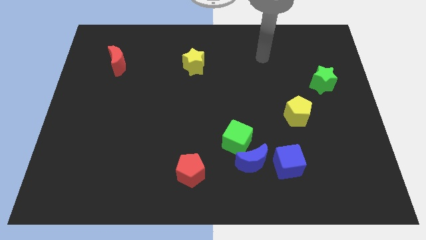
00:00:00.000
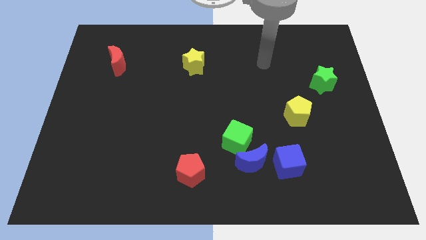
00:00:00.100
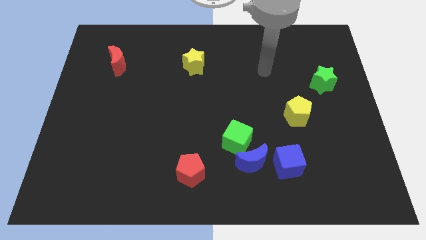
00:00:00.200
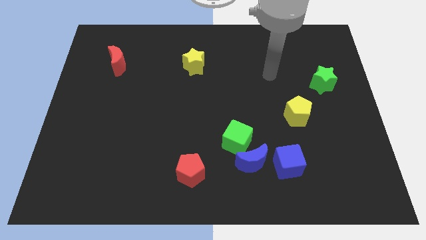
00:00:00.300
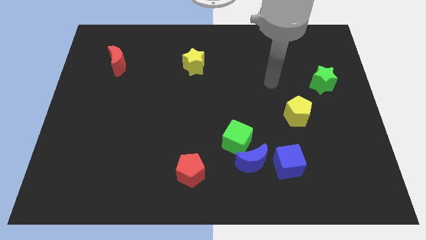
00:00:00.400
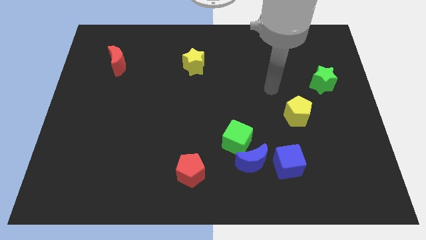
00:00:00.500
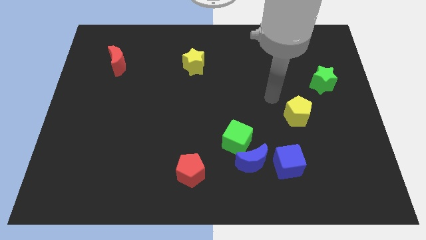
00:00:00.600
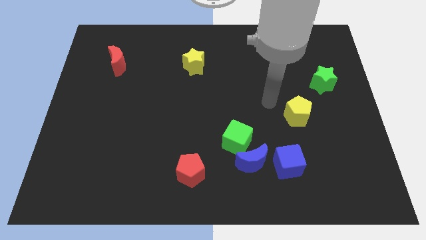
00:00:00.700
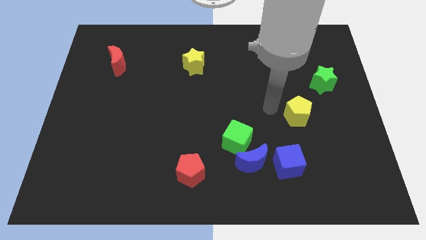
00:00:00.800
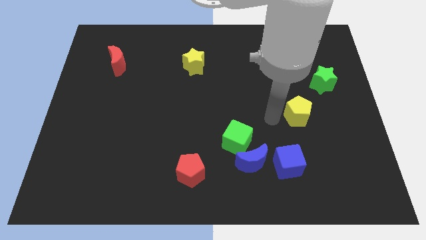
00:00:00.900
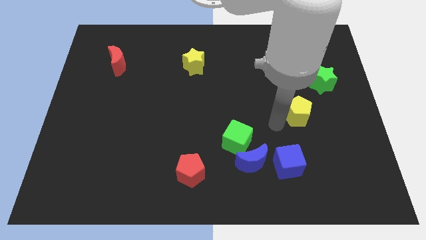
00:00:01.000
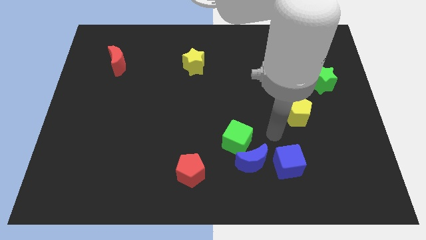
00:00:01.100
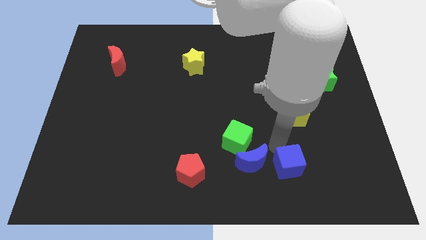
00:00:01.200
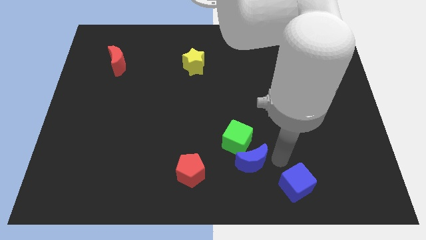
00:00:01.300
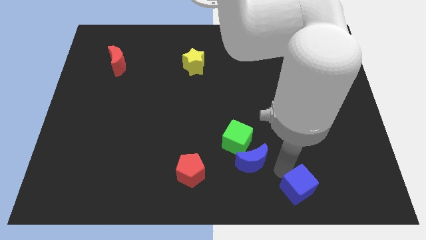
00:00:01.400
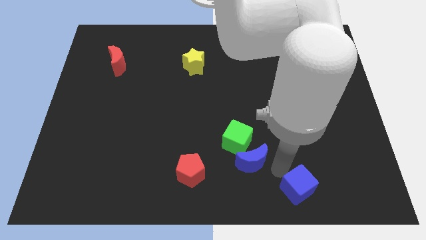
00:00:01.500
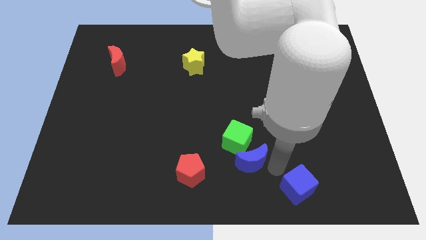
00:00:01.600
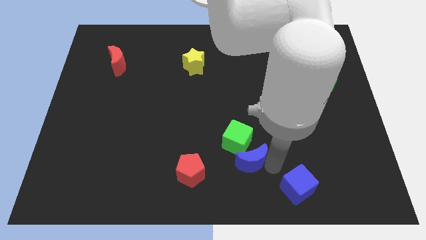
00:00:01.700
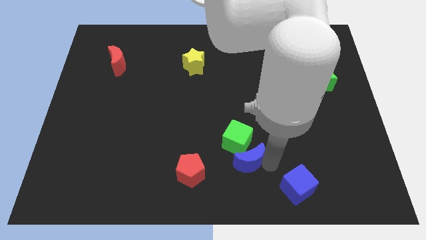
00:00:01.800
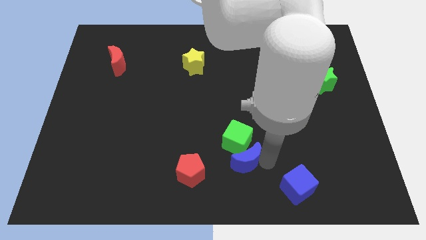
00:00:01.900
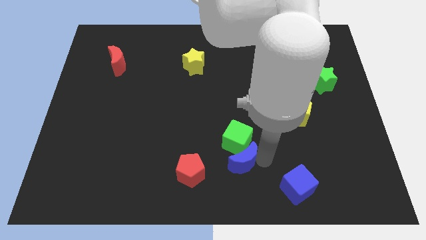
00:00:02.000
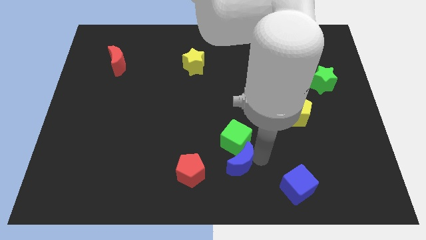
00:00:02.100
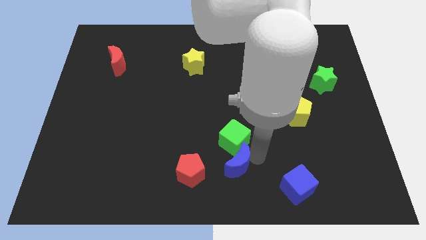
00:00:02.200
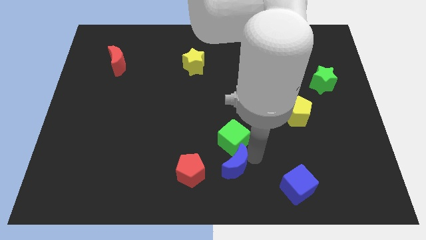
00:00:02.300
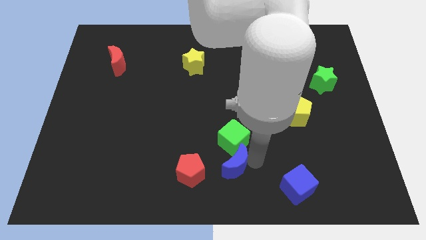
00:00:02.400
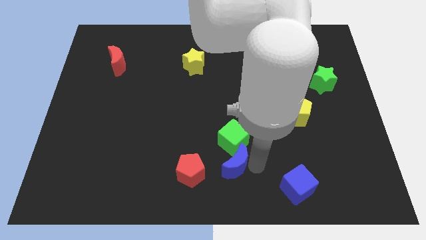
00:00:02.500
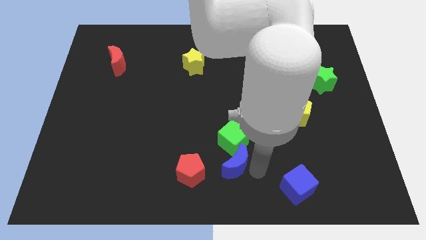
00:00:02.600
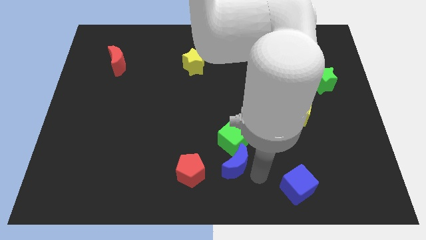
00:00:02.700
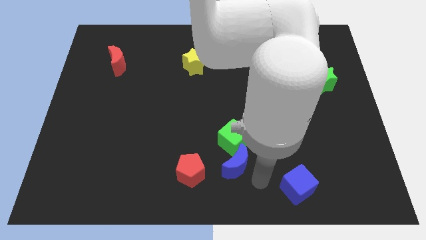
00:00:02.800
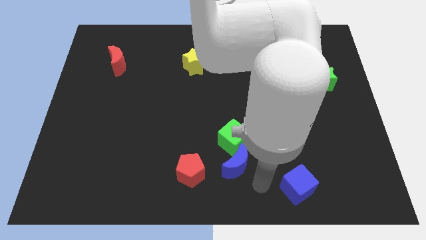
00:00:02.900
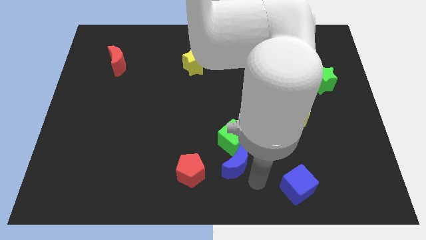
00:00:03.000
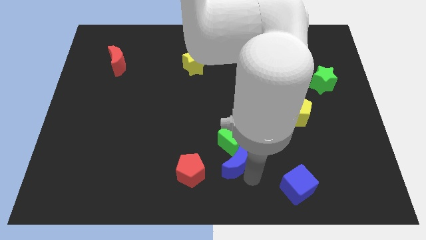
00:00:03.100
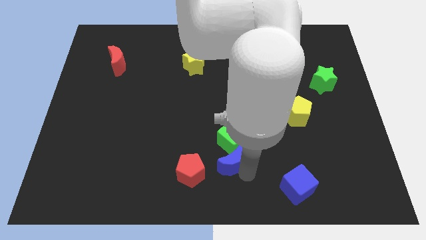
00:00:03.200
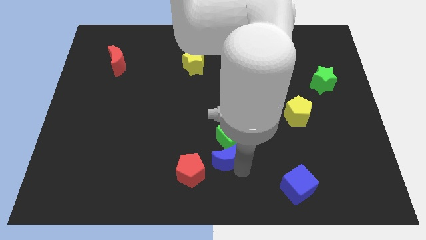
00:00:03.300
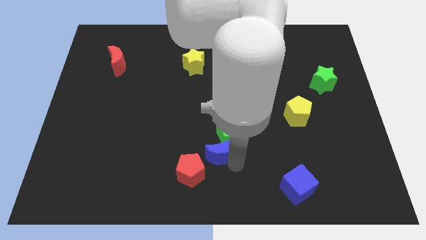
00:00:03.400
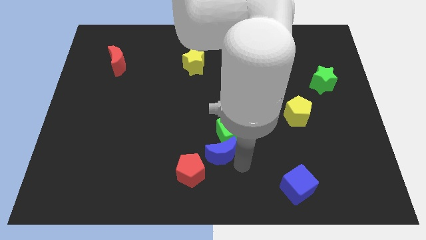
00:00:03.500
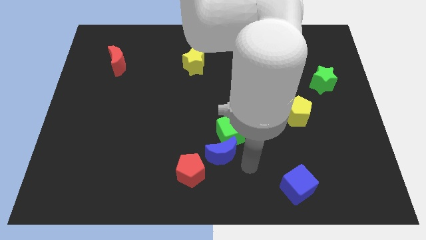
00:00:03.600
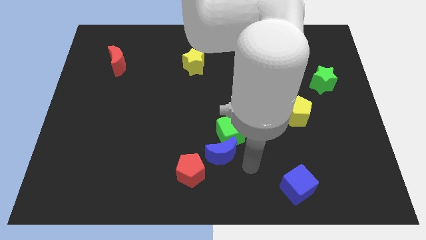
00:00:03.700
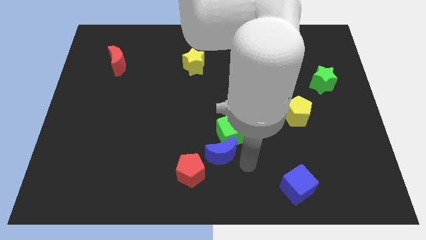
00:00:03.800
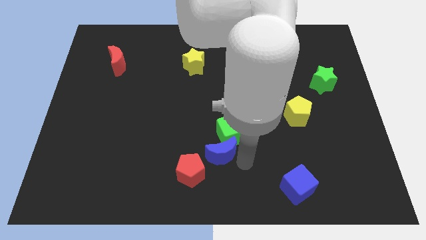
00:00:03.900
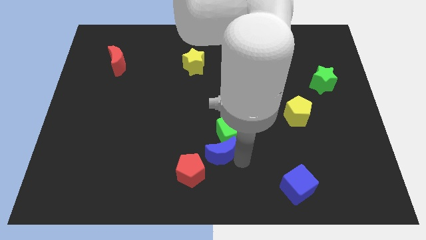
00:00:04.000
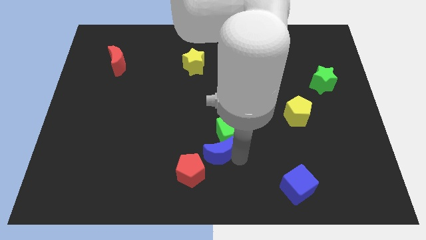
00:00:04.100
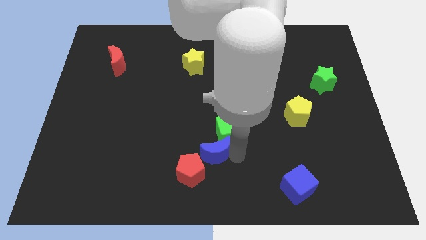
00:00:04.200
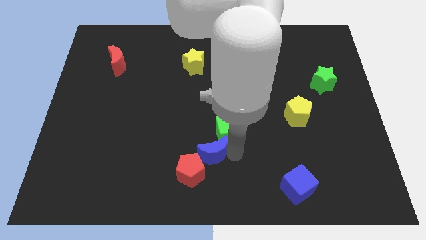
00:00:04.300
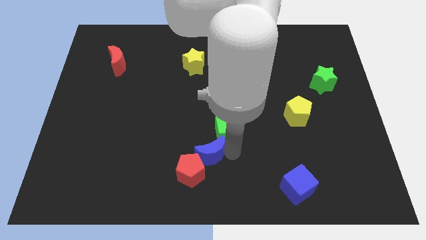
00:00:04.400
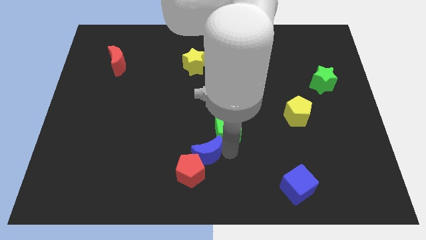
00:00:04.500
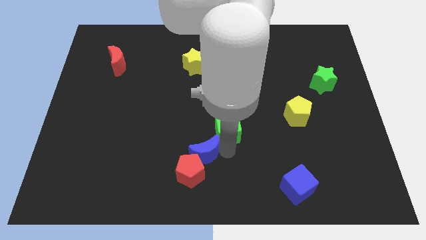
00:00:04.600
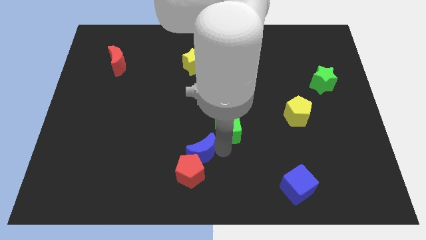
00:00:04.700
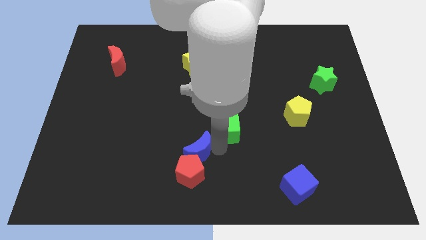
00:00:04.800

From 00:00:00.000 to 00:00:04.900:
put the blue moon diagonally up and to the left of the red pentagon

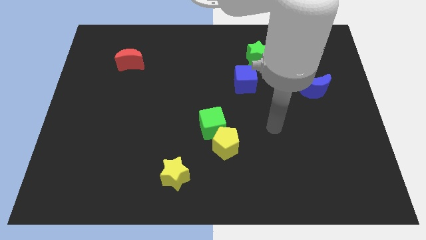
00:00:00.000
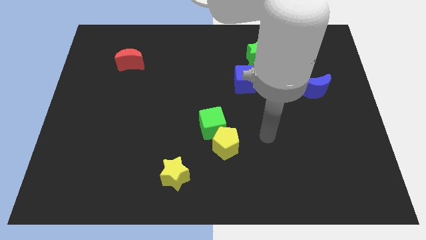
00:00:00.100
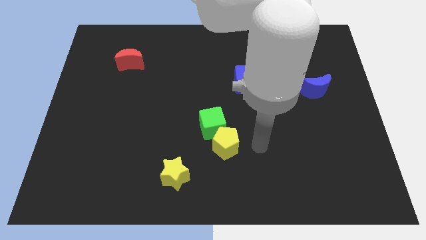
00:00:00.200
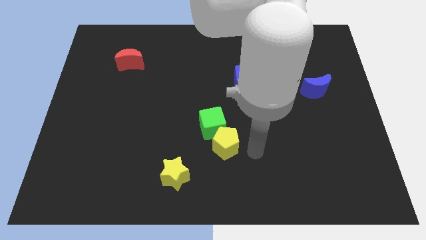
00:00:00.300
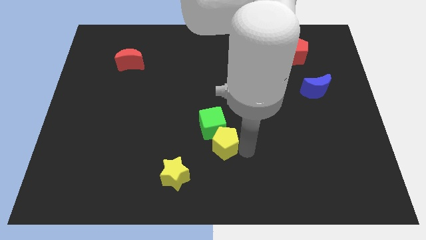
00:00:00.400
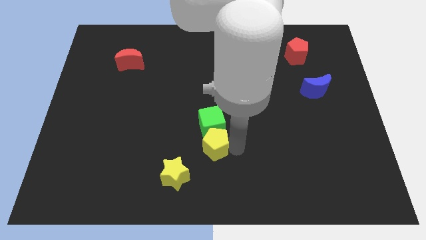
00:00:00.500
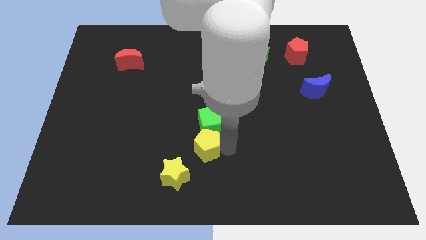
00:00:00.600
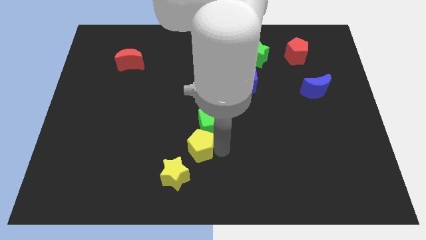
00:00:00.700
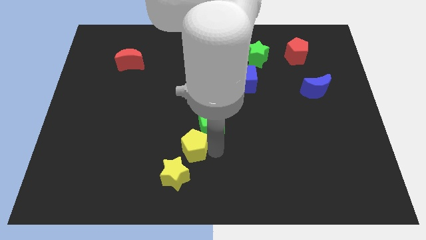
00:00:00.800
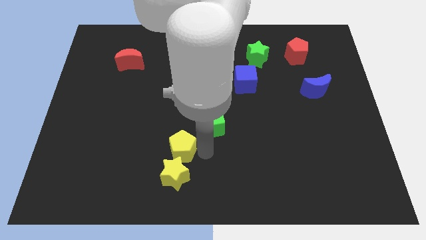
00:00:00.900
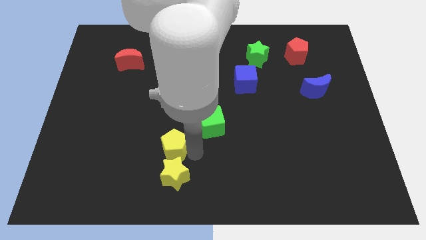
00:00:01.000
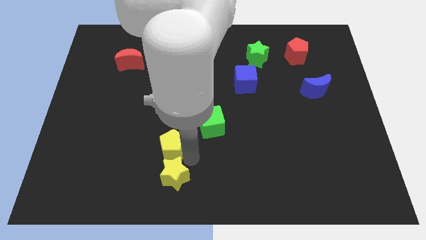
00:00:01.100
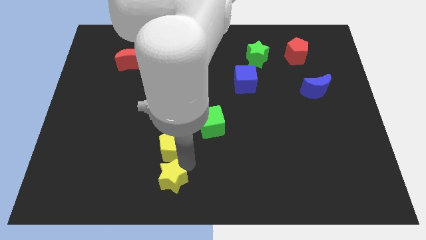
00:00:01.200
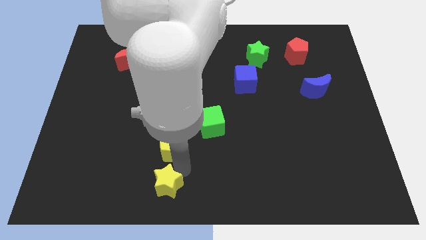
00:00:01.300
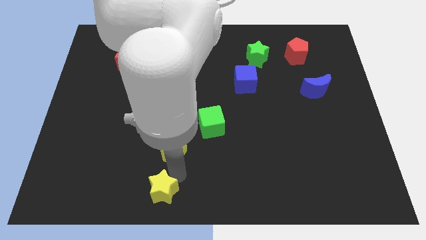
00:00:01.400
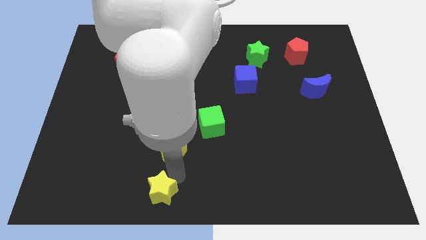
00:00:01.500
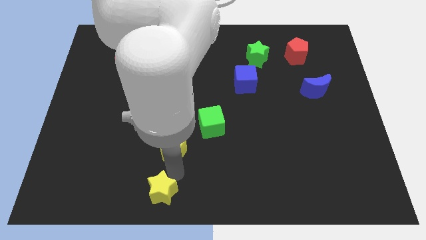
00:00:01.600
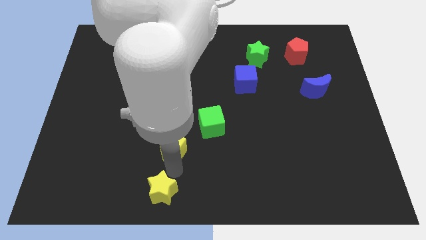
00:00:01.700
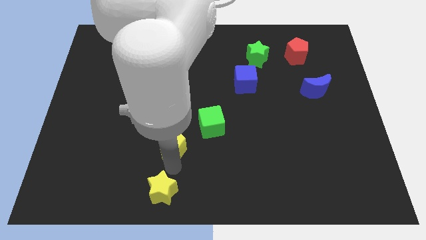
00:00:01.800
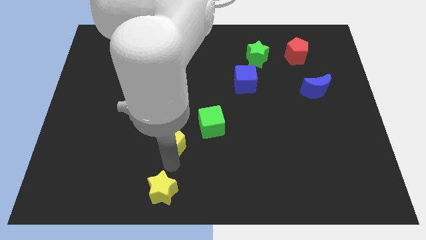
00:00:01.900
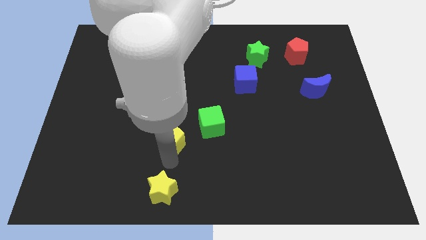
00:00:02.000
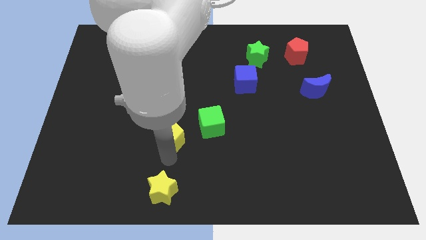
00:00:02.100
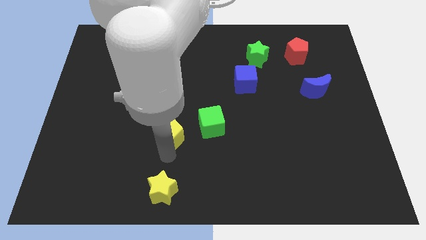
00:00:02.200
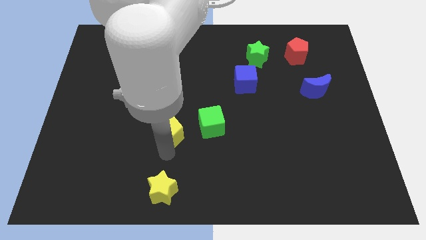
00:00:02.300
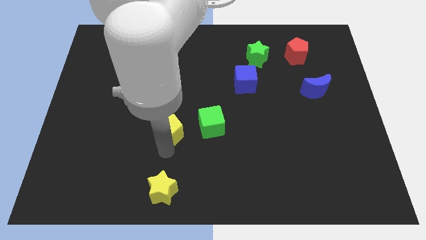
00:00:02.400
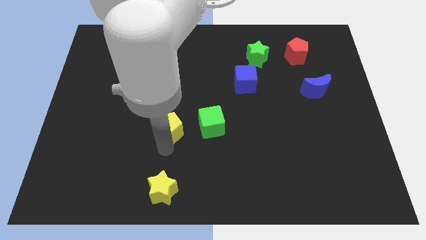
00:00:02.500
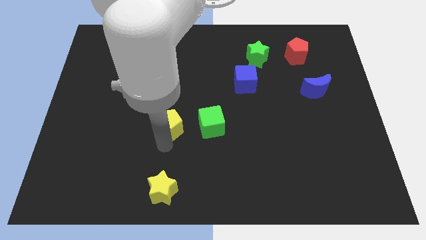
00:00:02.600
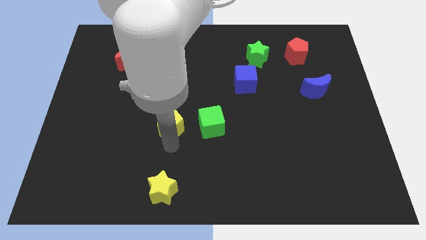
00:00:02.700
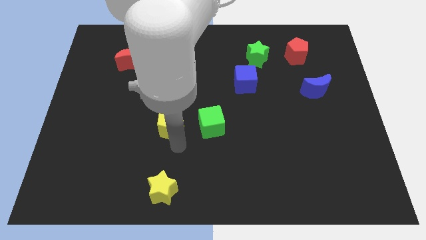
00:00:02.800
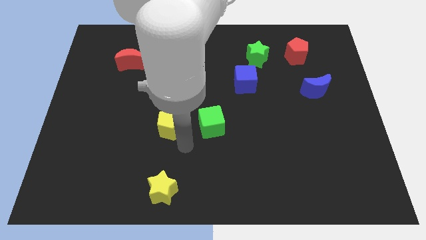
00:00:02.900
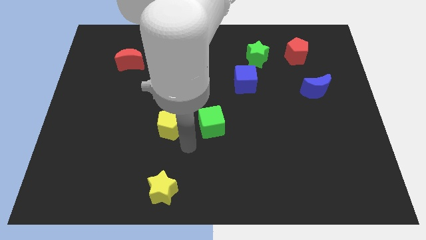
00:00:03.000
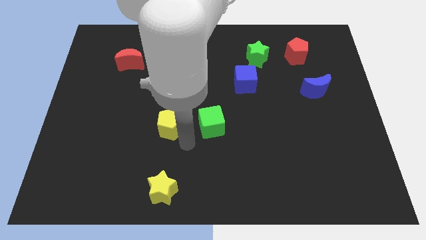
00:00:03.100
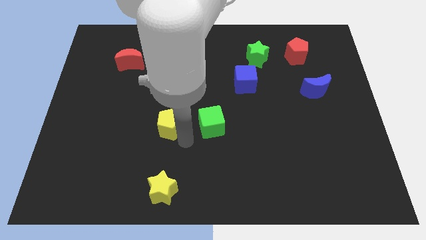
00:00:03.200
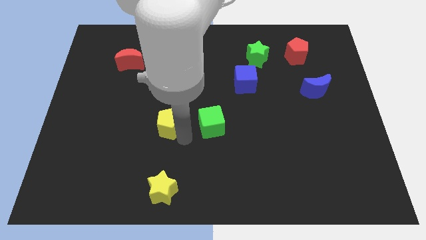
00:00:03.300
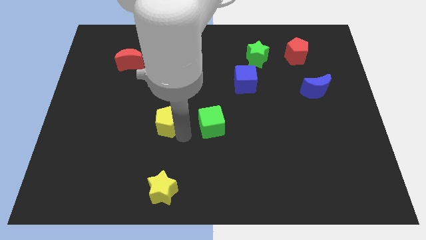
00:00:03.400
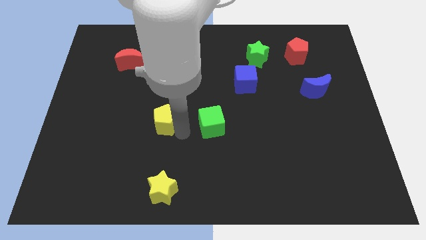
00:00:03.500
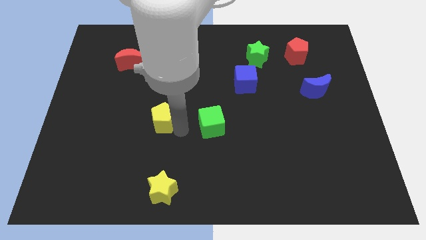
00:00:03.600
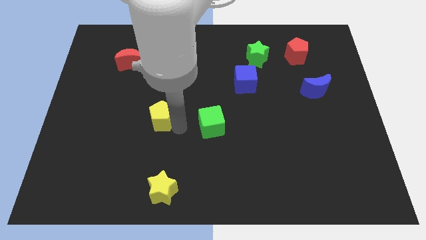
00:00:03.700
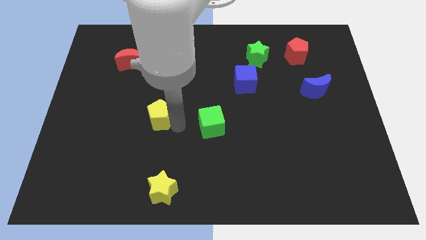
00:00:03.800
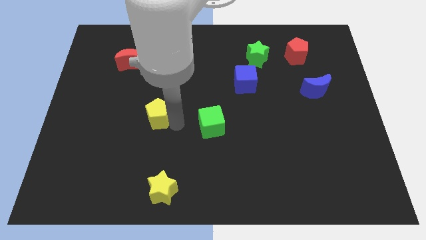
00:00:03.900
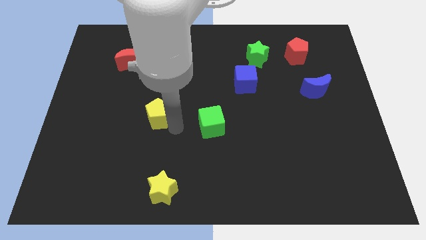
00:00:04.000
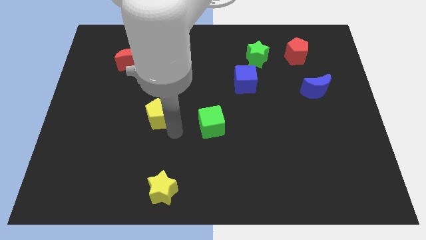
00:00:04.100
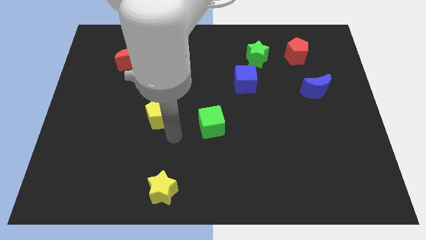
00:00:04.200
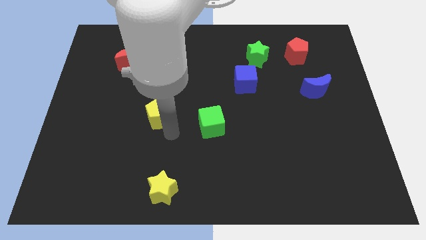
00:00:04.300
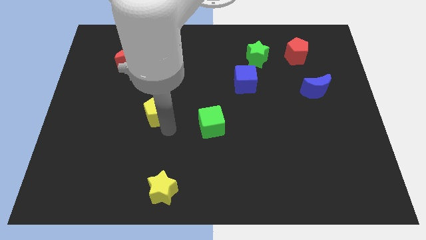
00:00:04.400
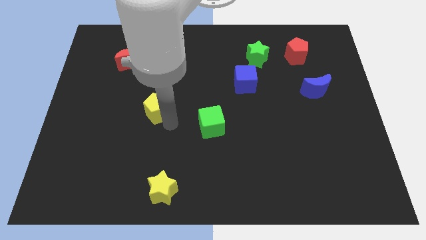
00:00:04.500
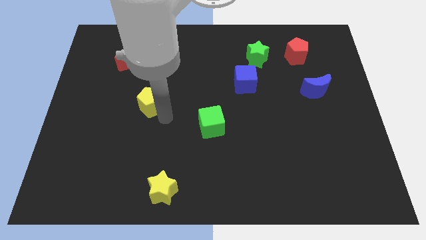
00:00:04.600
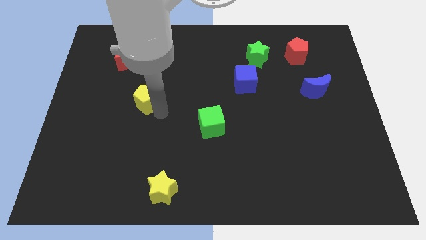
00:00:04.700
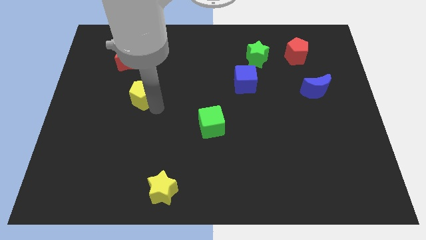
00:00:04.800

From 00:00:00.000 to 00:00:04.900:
slide the yellow pentagon to the bottom side of the red moon
